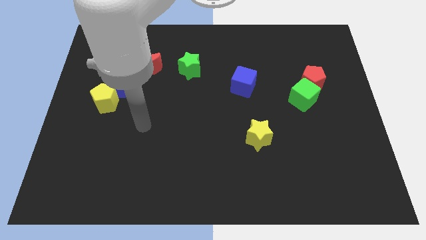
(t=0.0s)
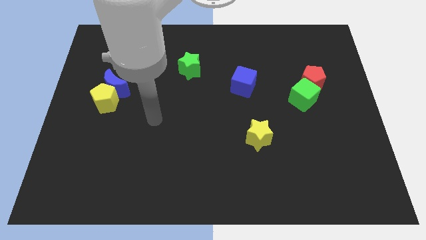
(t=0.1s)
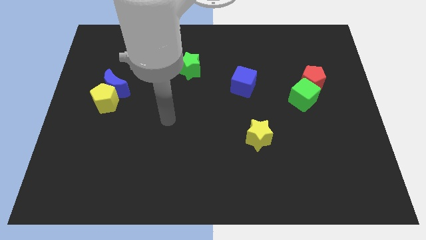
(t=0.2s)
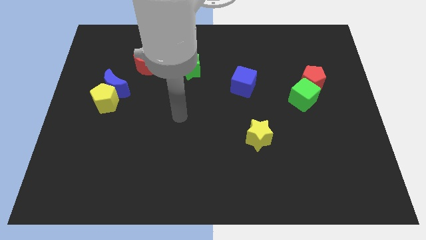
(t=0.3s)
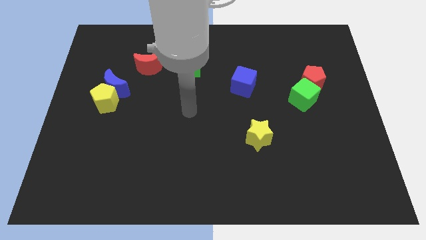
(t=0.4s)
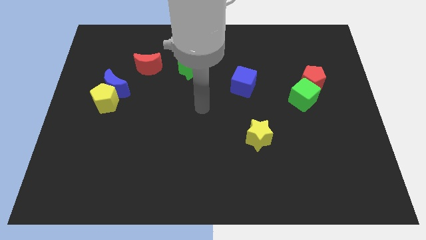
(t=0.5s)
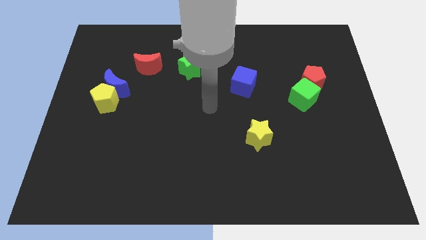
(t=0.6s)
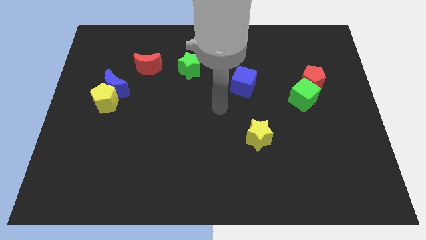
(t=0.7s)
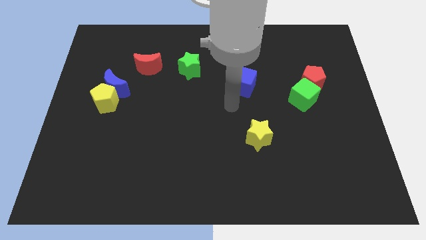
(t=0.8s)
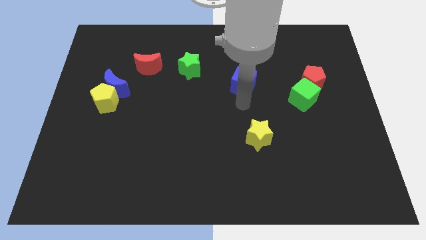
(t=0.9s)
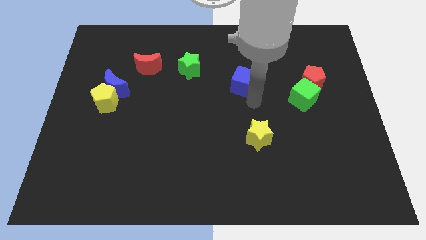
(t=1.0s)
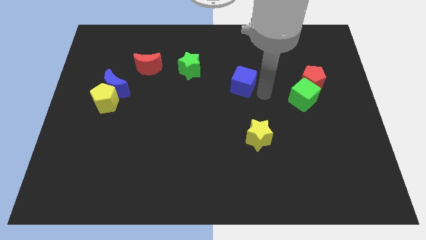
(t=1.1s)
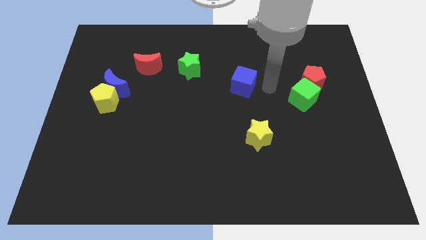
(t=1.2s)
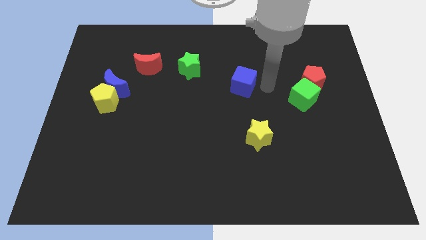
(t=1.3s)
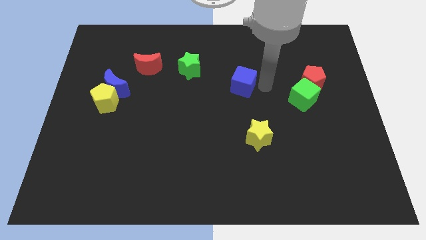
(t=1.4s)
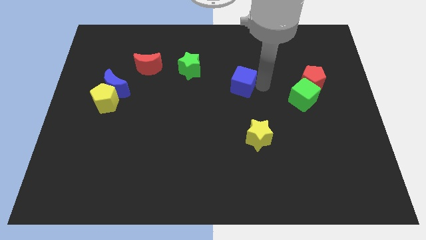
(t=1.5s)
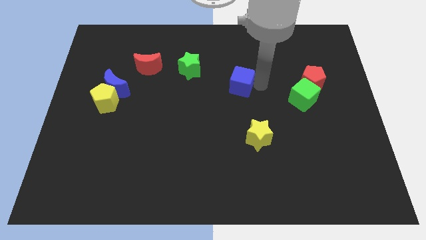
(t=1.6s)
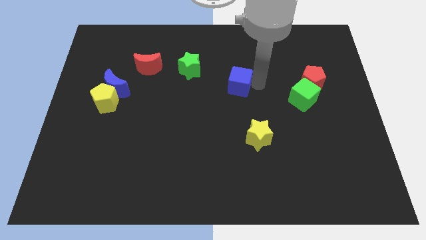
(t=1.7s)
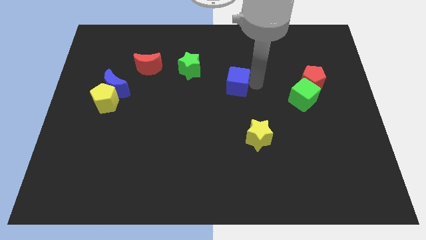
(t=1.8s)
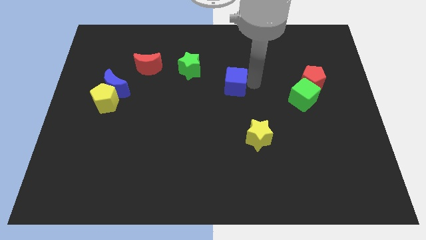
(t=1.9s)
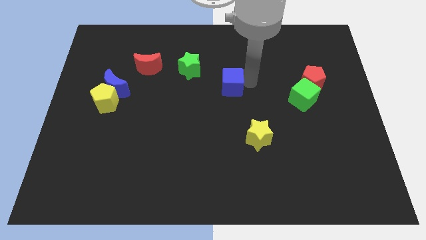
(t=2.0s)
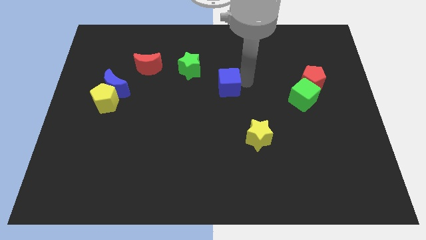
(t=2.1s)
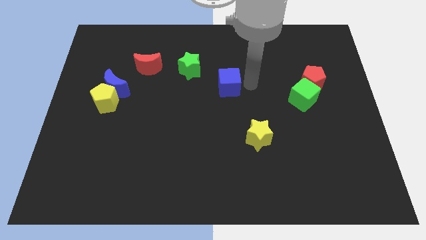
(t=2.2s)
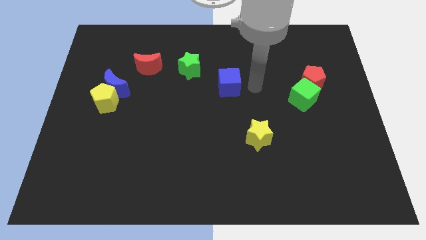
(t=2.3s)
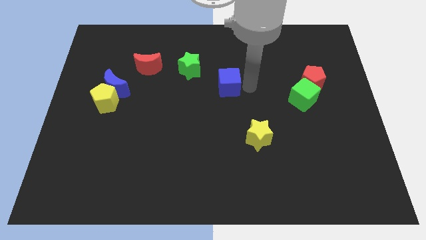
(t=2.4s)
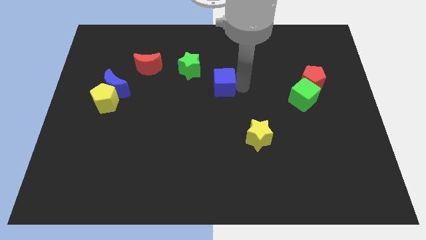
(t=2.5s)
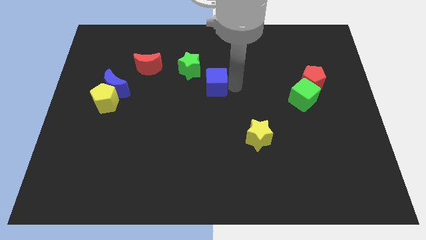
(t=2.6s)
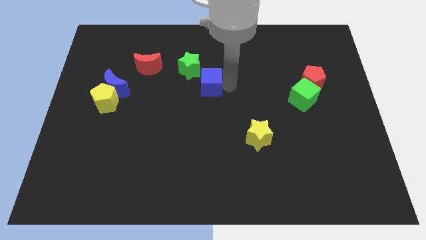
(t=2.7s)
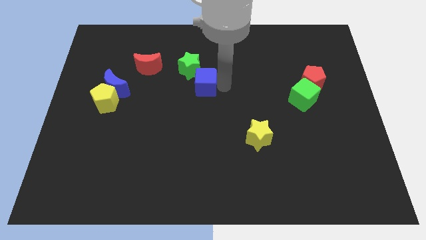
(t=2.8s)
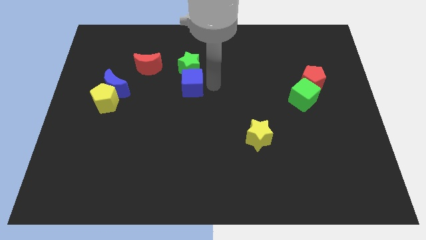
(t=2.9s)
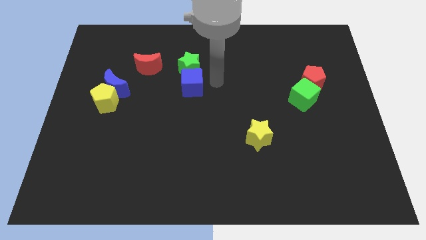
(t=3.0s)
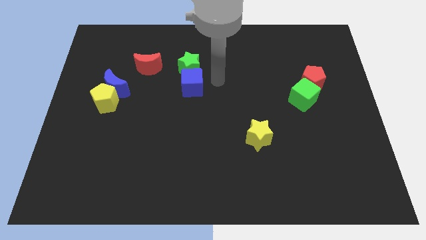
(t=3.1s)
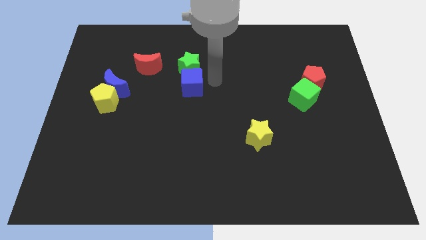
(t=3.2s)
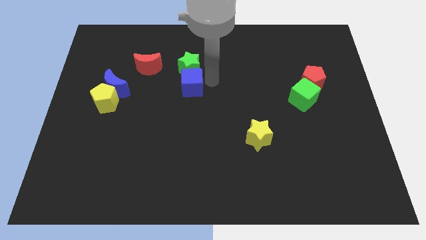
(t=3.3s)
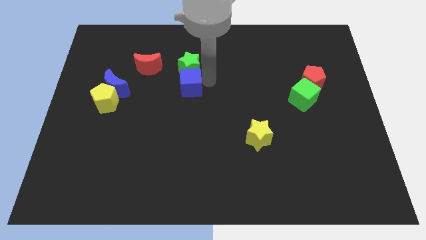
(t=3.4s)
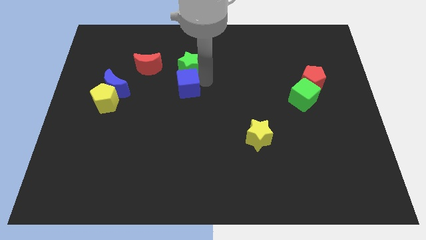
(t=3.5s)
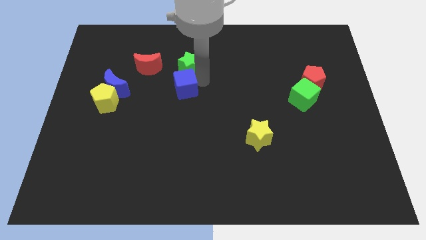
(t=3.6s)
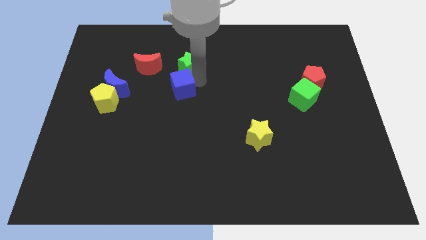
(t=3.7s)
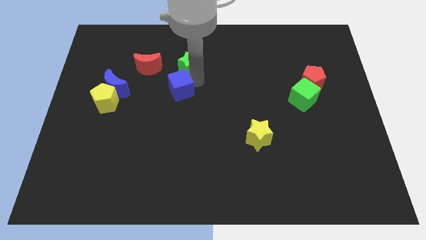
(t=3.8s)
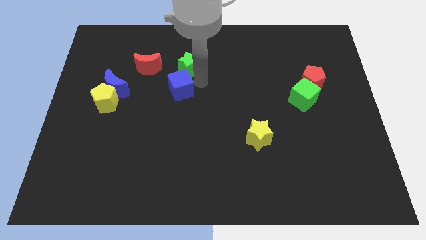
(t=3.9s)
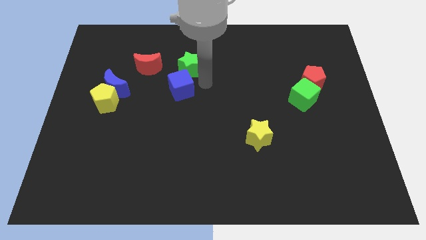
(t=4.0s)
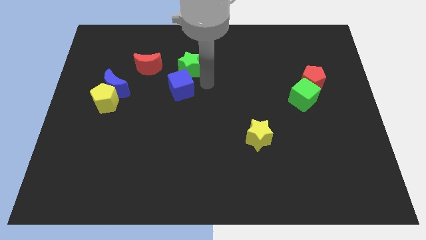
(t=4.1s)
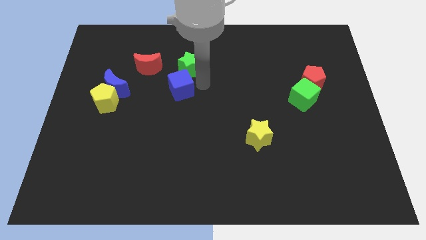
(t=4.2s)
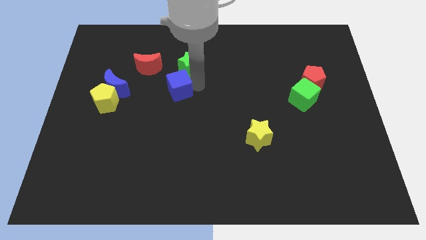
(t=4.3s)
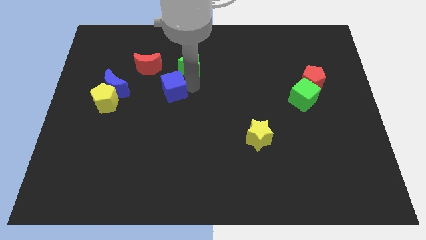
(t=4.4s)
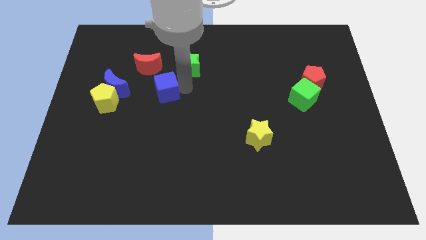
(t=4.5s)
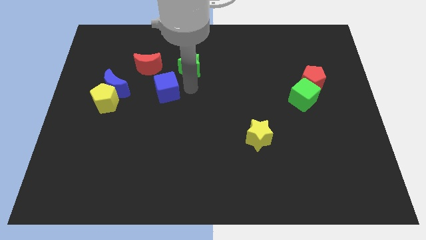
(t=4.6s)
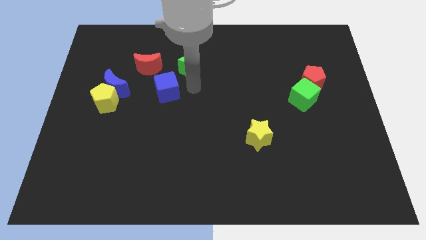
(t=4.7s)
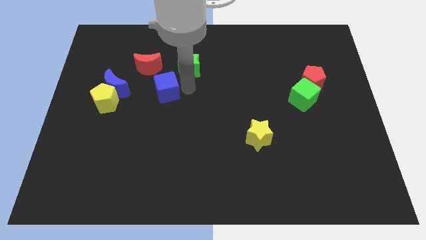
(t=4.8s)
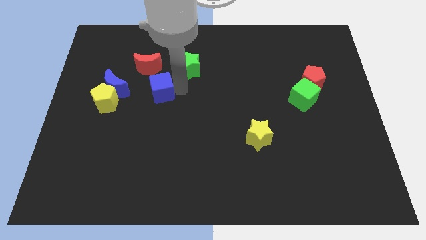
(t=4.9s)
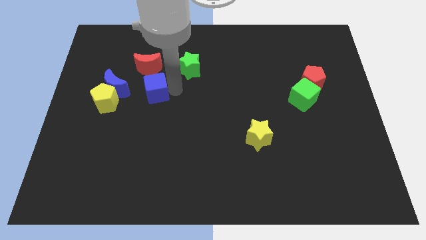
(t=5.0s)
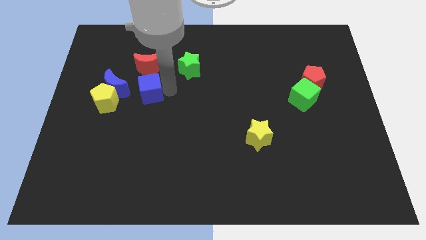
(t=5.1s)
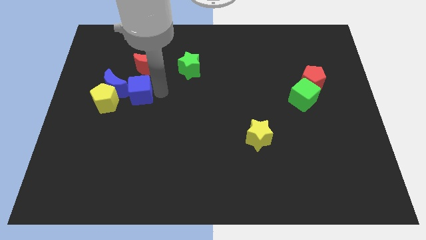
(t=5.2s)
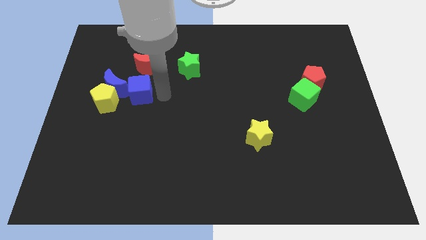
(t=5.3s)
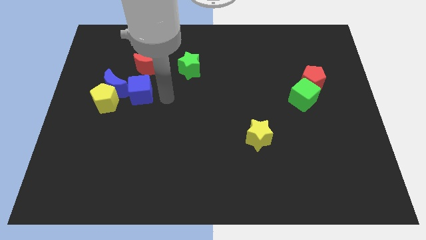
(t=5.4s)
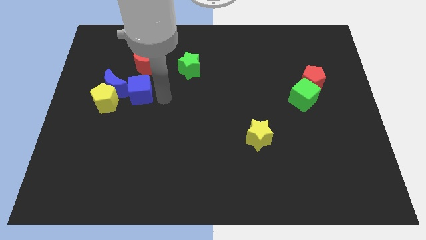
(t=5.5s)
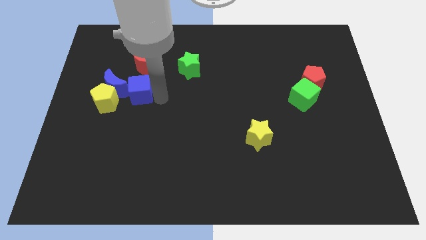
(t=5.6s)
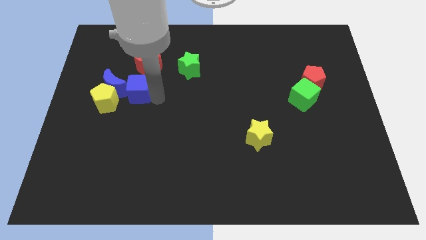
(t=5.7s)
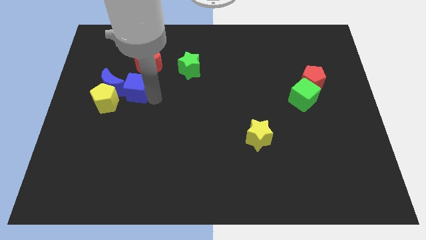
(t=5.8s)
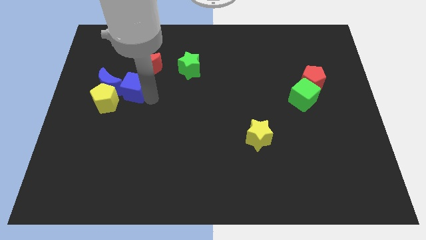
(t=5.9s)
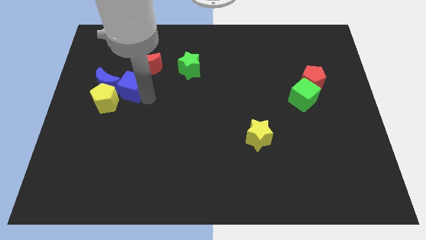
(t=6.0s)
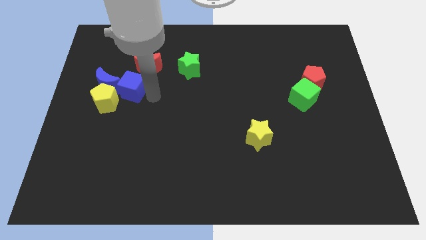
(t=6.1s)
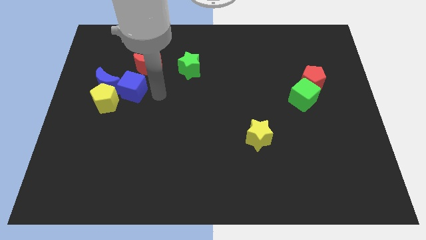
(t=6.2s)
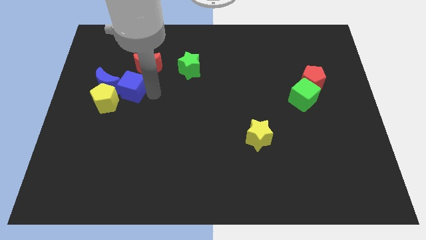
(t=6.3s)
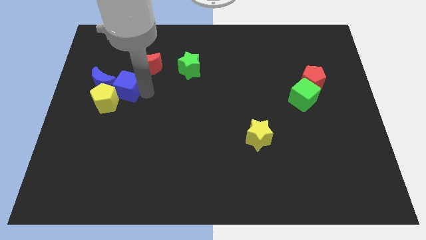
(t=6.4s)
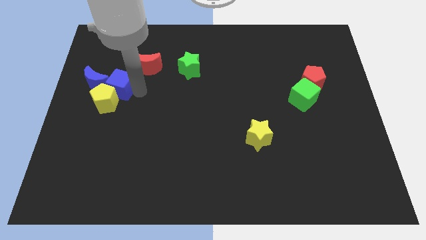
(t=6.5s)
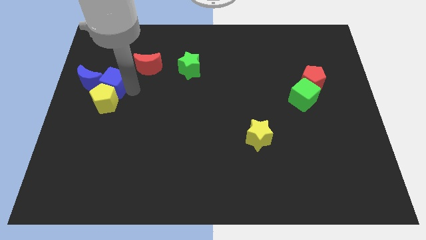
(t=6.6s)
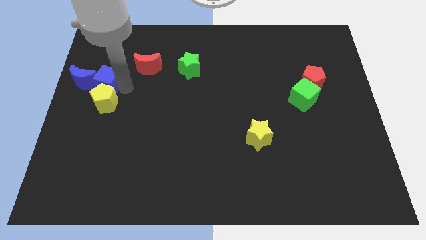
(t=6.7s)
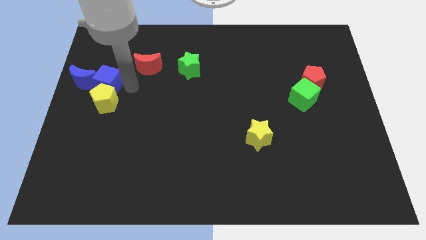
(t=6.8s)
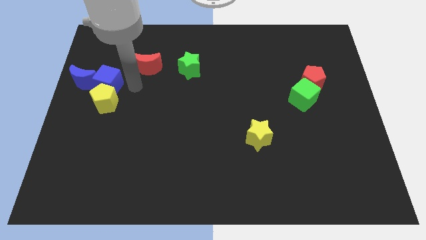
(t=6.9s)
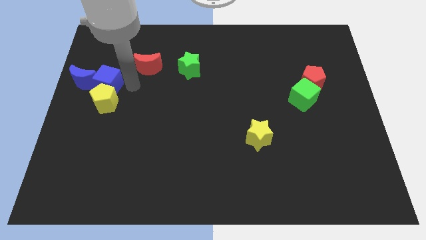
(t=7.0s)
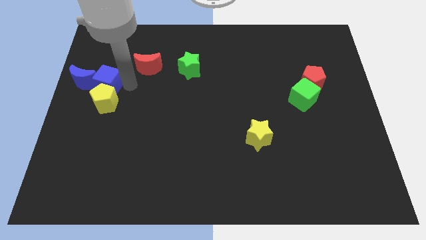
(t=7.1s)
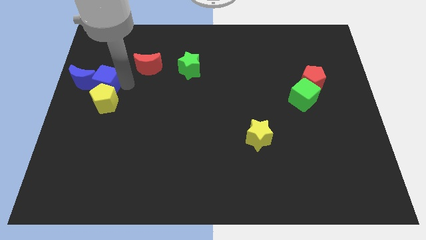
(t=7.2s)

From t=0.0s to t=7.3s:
put the blue cube towards the blue moon

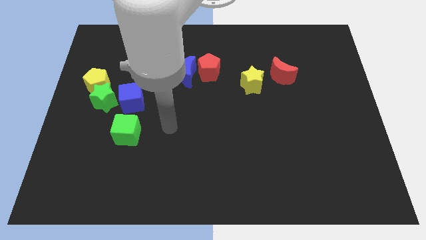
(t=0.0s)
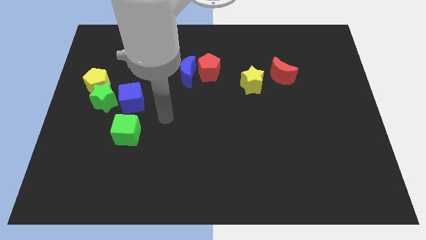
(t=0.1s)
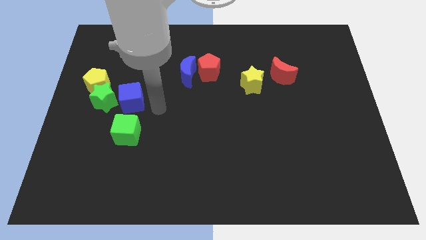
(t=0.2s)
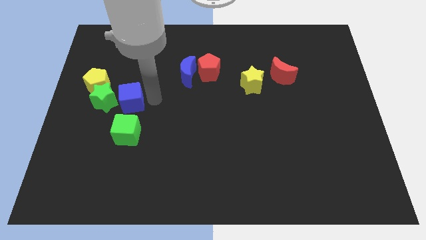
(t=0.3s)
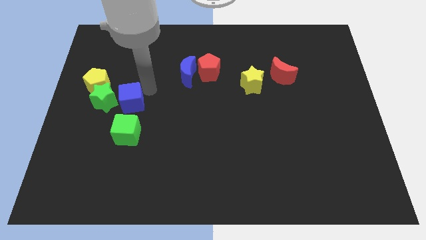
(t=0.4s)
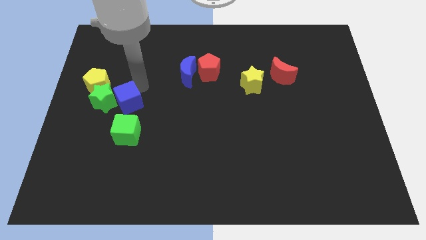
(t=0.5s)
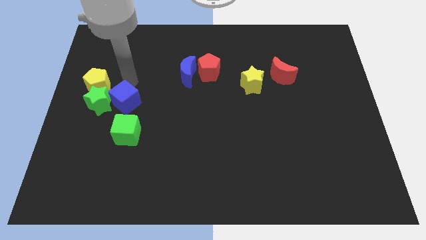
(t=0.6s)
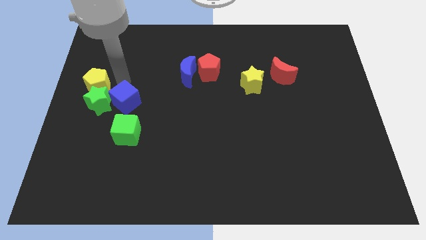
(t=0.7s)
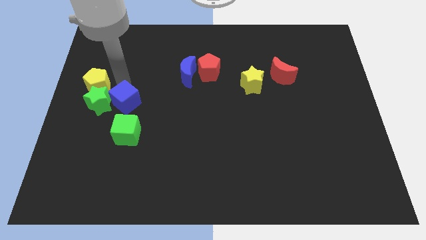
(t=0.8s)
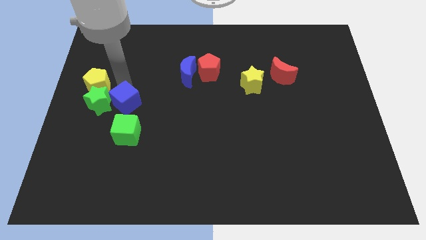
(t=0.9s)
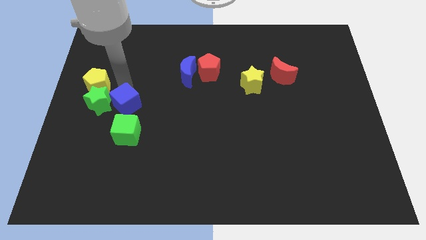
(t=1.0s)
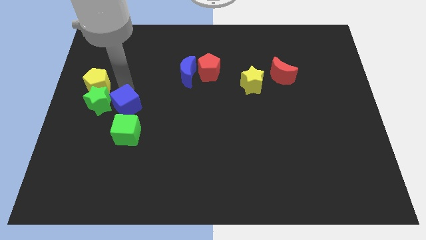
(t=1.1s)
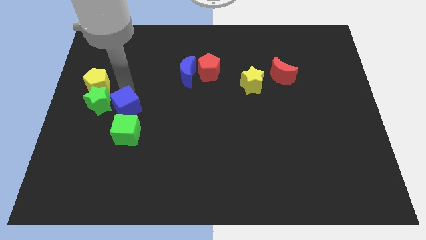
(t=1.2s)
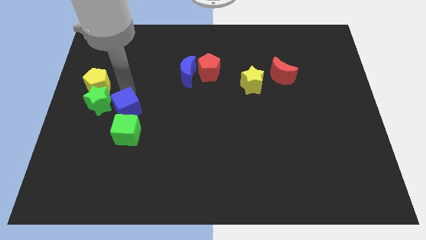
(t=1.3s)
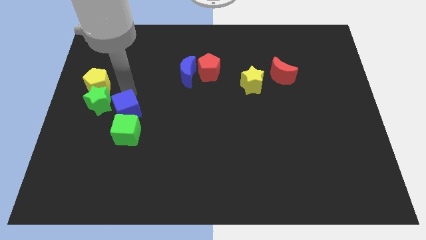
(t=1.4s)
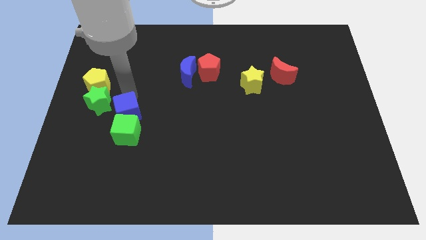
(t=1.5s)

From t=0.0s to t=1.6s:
slide the blue cube towards the green cube
